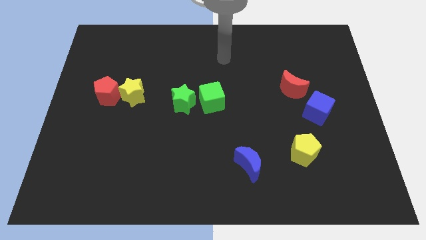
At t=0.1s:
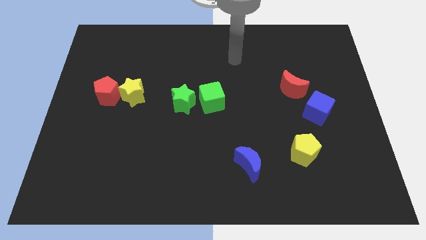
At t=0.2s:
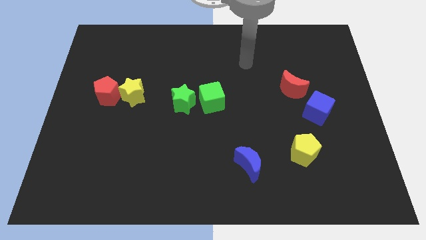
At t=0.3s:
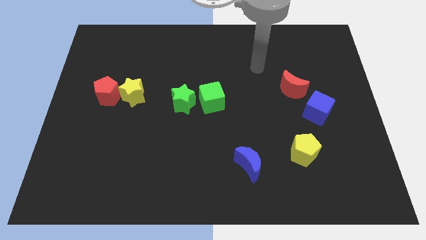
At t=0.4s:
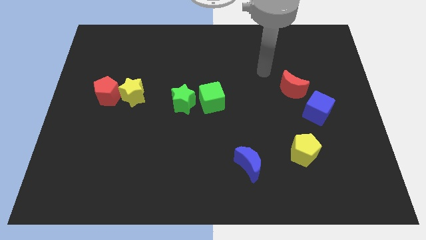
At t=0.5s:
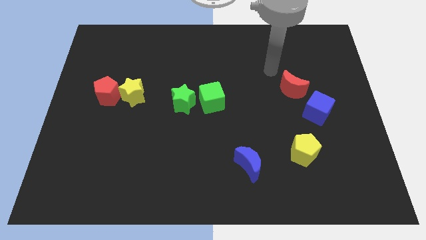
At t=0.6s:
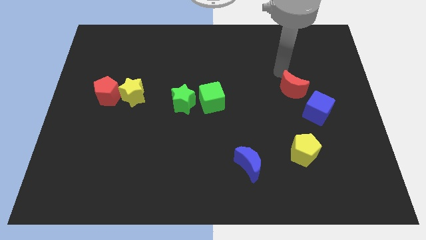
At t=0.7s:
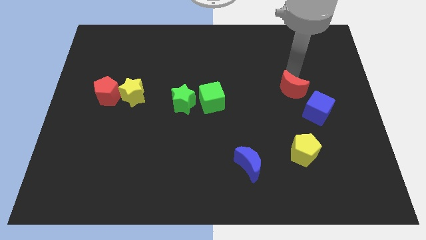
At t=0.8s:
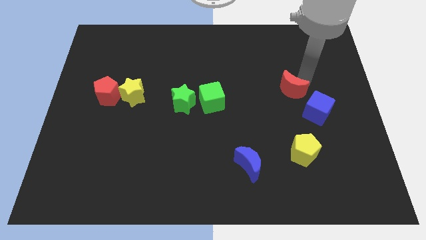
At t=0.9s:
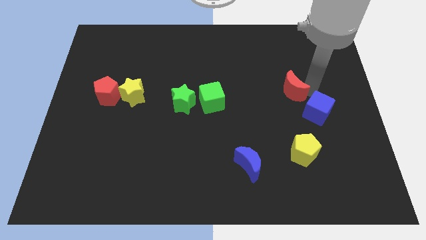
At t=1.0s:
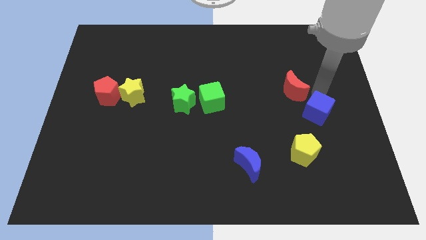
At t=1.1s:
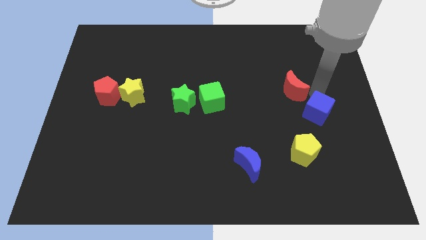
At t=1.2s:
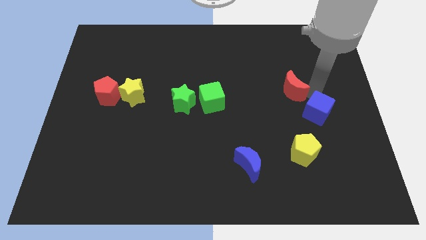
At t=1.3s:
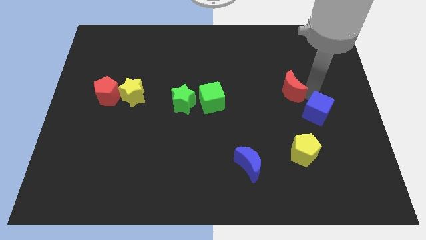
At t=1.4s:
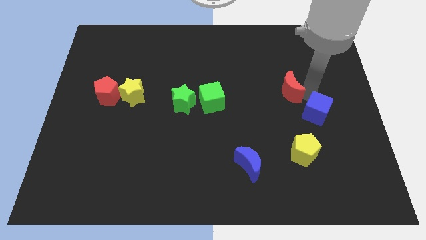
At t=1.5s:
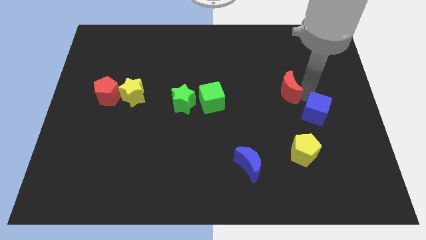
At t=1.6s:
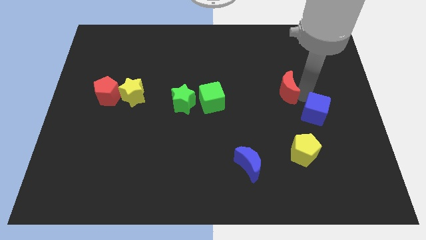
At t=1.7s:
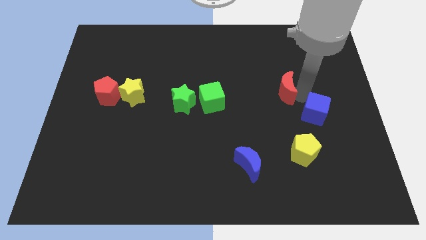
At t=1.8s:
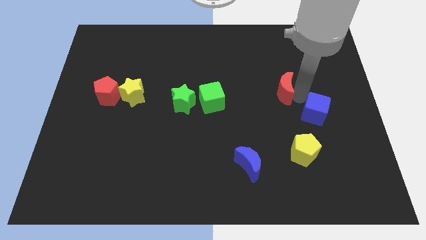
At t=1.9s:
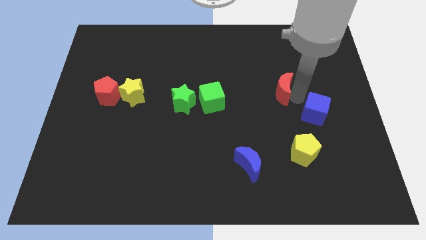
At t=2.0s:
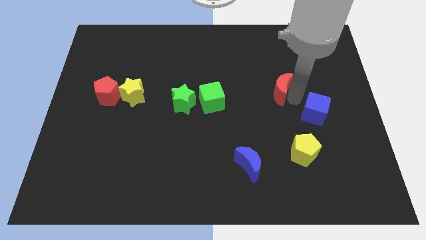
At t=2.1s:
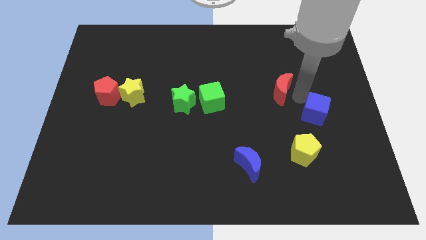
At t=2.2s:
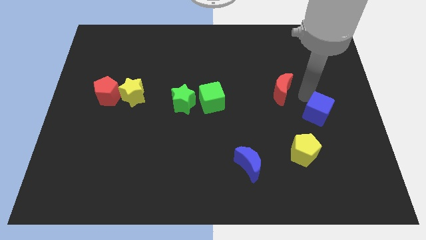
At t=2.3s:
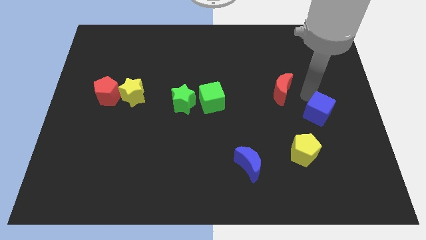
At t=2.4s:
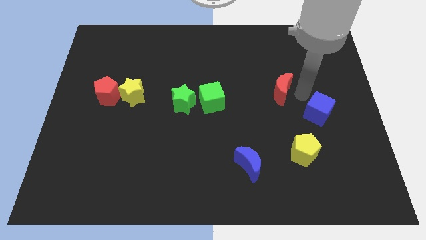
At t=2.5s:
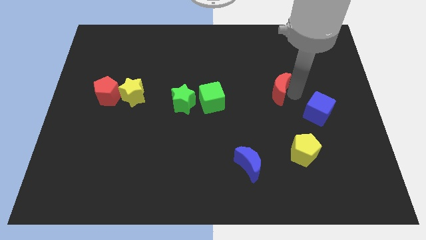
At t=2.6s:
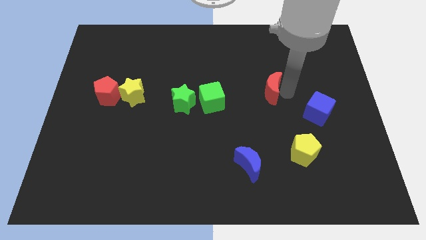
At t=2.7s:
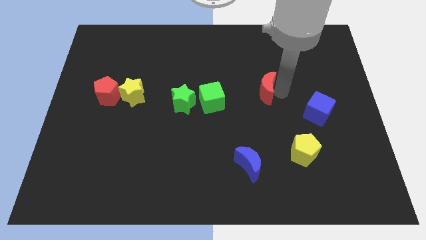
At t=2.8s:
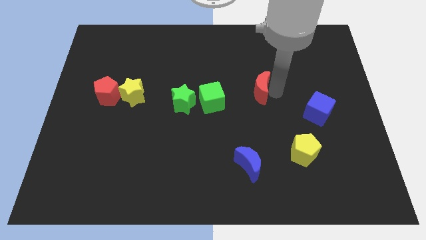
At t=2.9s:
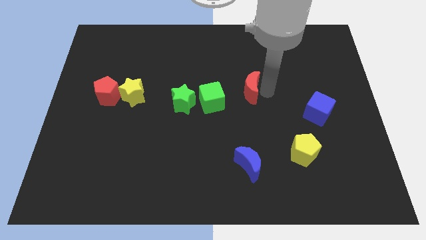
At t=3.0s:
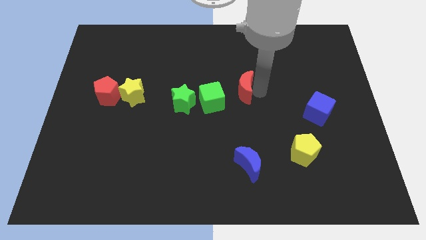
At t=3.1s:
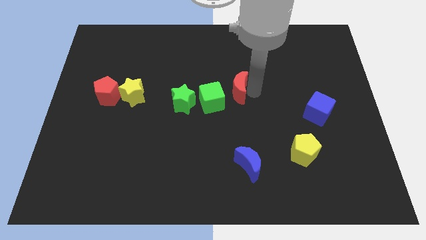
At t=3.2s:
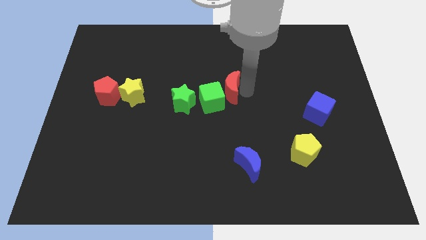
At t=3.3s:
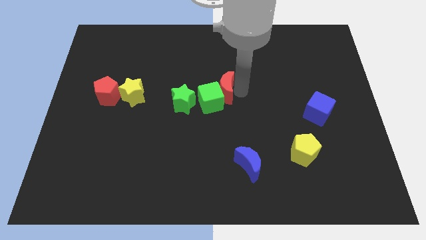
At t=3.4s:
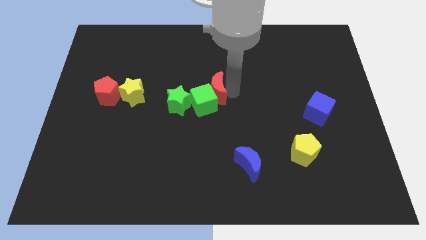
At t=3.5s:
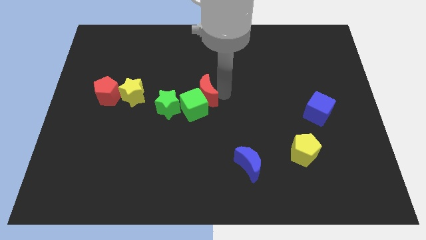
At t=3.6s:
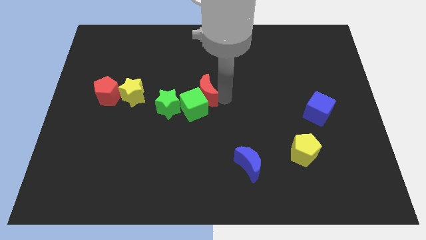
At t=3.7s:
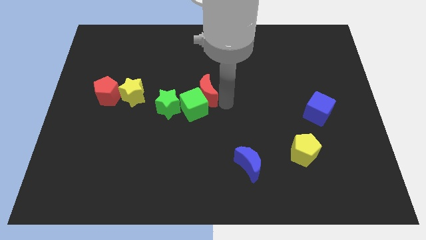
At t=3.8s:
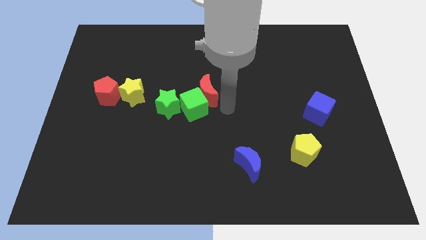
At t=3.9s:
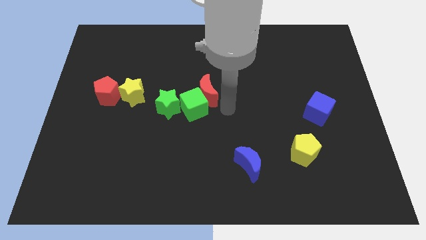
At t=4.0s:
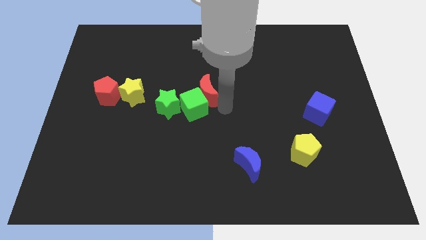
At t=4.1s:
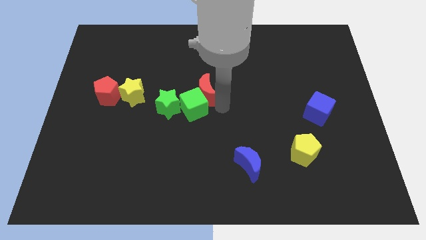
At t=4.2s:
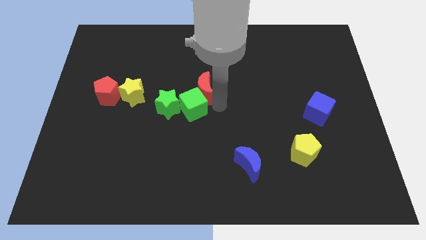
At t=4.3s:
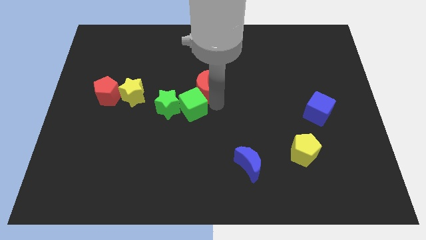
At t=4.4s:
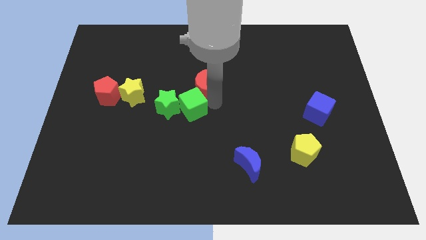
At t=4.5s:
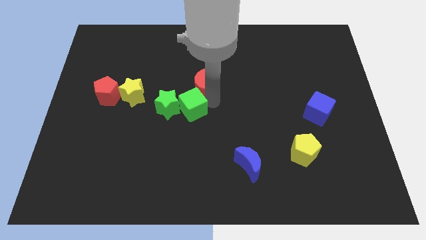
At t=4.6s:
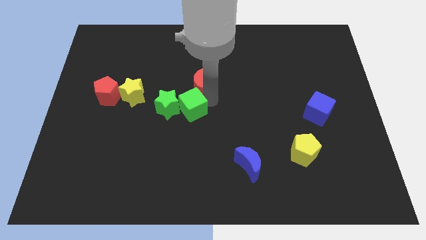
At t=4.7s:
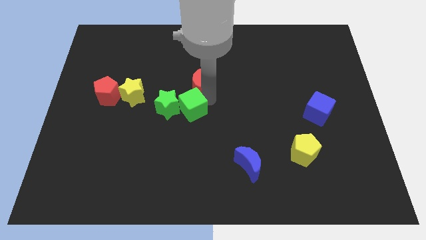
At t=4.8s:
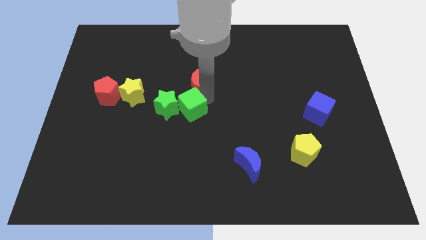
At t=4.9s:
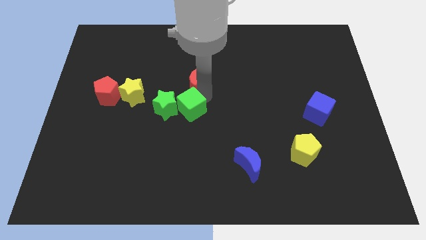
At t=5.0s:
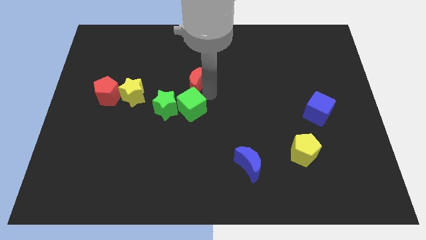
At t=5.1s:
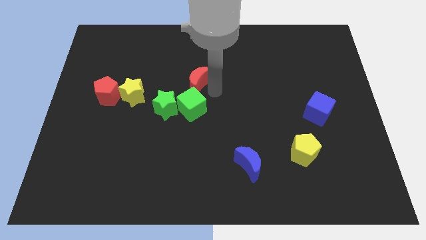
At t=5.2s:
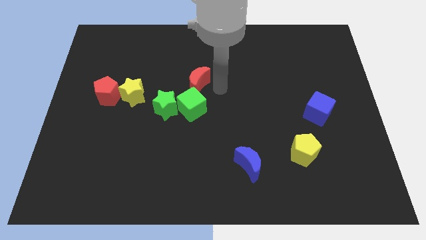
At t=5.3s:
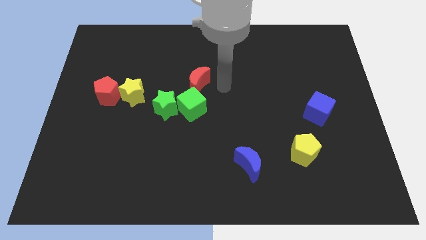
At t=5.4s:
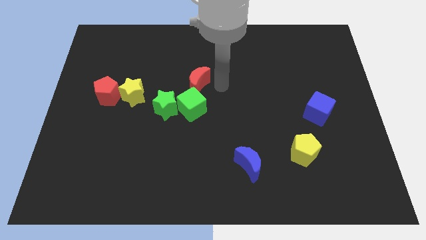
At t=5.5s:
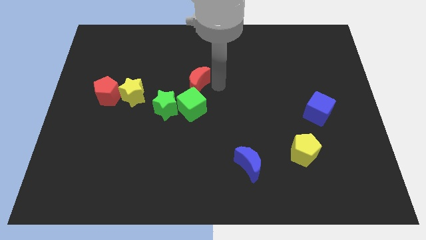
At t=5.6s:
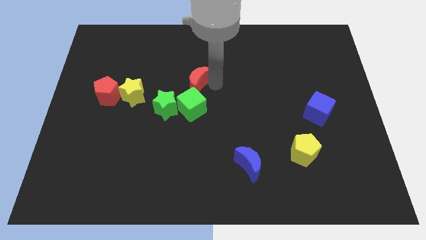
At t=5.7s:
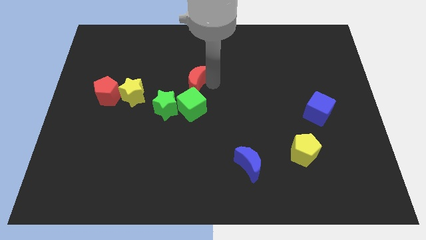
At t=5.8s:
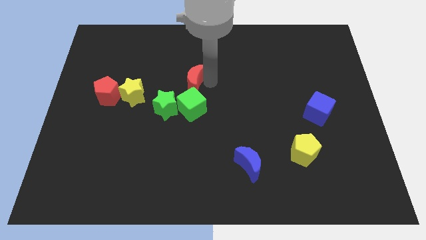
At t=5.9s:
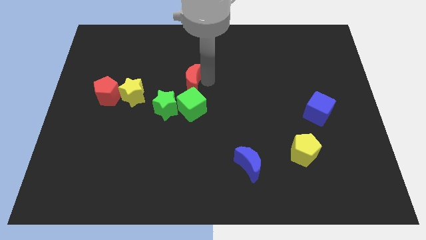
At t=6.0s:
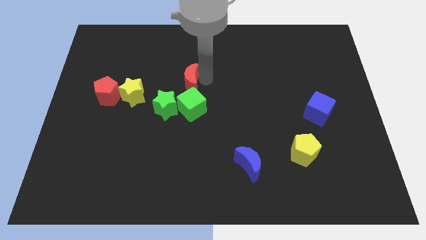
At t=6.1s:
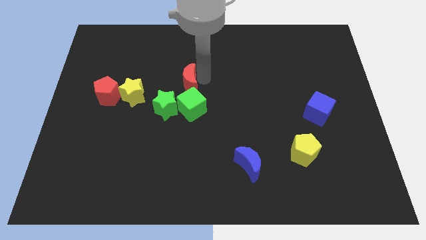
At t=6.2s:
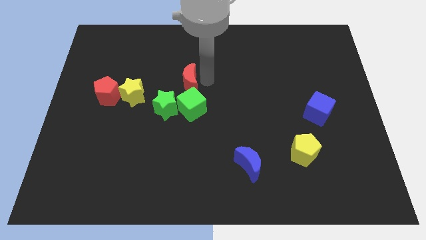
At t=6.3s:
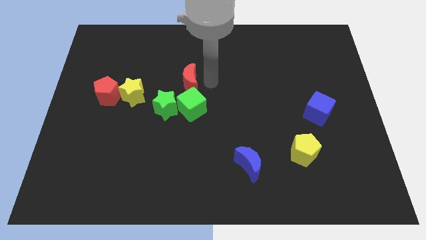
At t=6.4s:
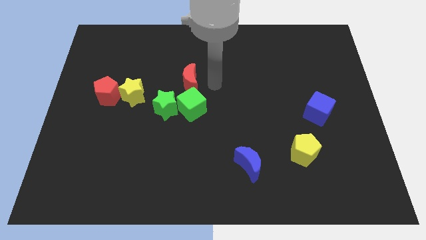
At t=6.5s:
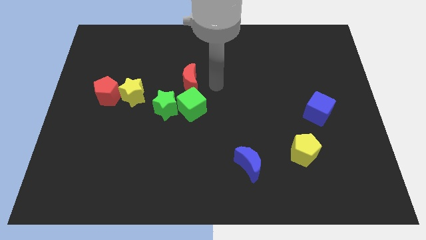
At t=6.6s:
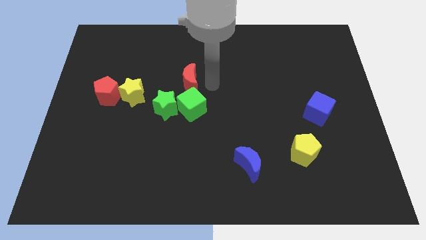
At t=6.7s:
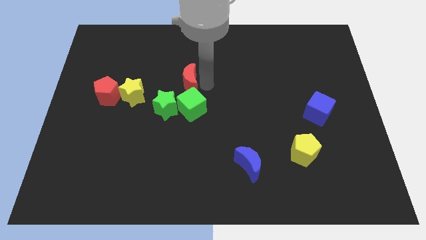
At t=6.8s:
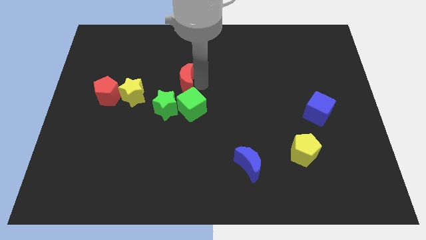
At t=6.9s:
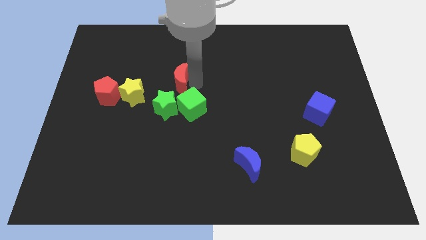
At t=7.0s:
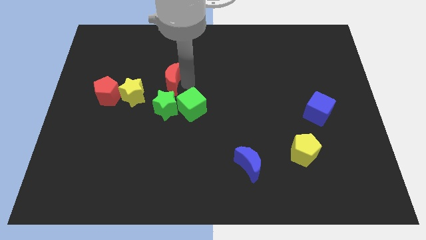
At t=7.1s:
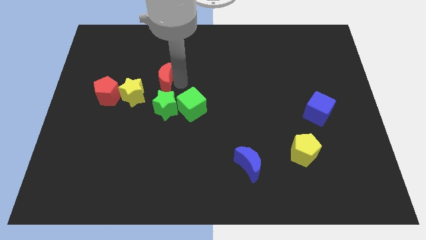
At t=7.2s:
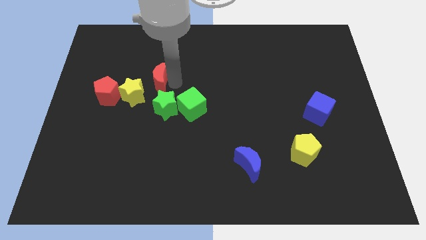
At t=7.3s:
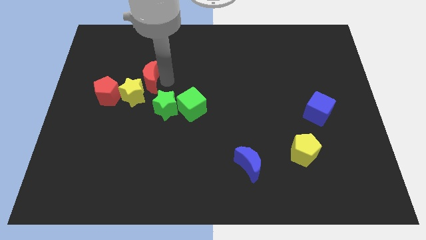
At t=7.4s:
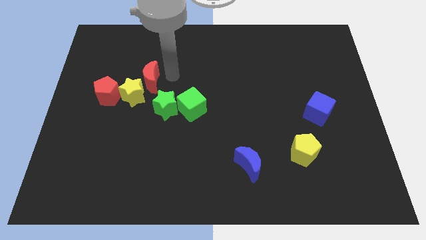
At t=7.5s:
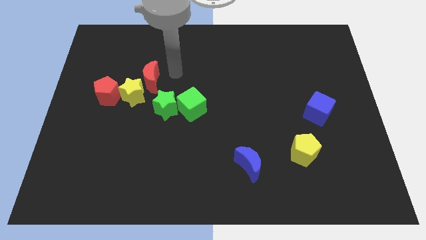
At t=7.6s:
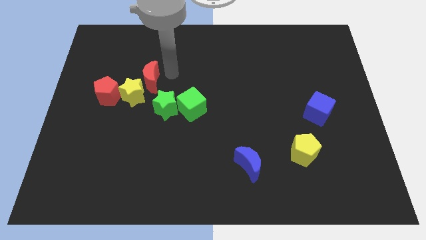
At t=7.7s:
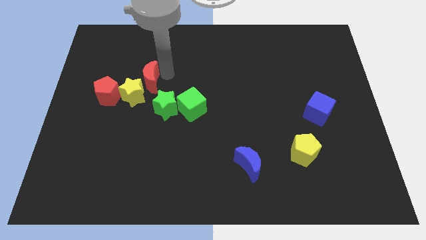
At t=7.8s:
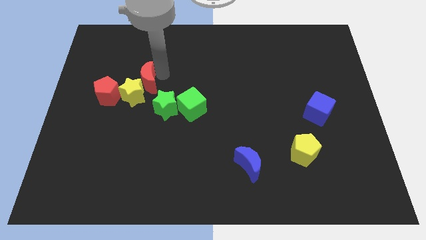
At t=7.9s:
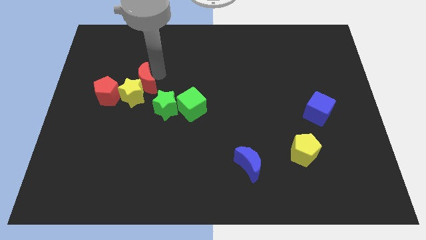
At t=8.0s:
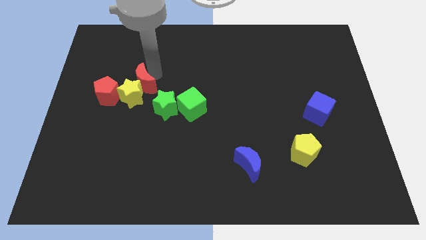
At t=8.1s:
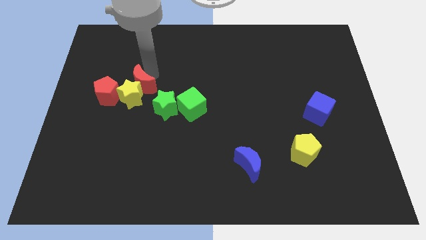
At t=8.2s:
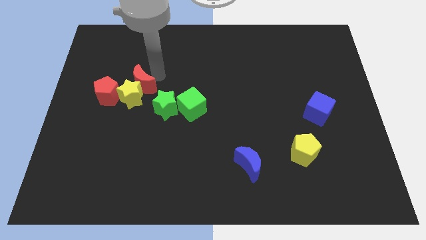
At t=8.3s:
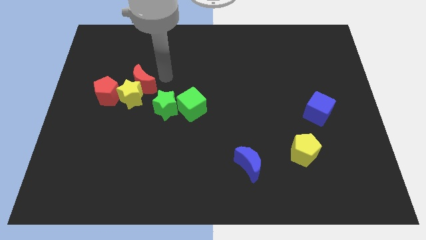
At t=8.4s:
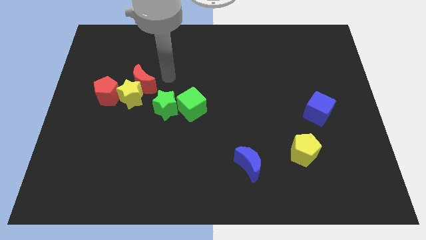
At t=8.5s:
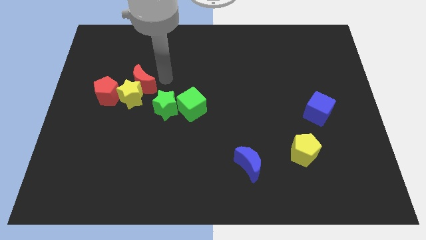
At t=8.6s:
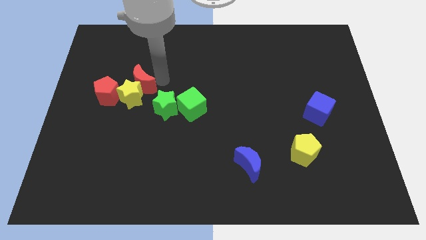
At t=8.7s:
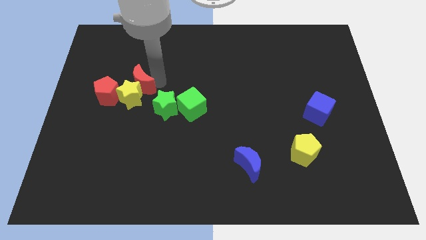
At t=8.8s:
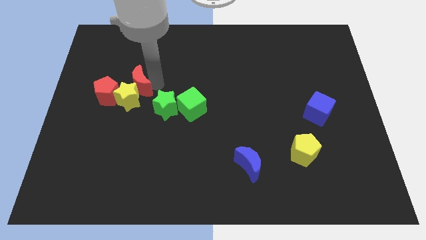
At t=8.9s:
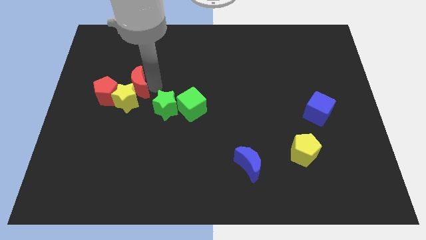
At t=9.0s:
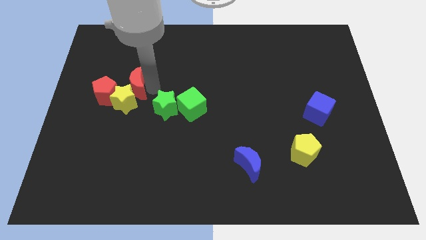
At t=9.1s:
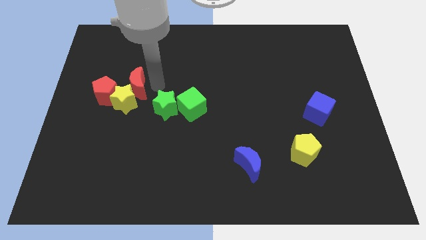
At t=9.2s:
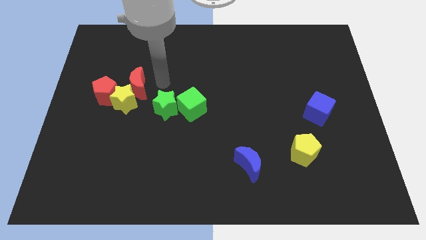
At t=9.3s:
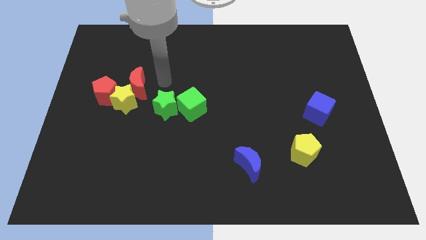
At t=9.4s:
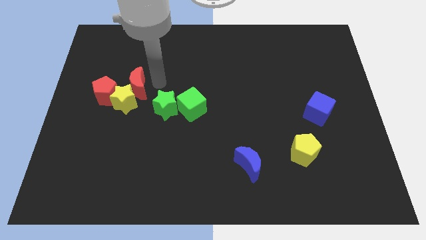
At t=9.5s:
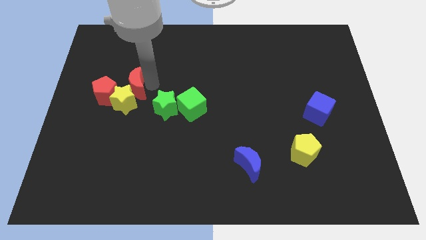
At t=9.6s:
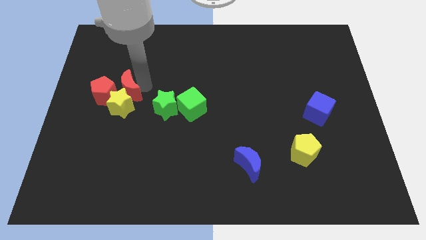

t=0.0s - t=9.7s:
slide the red moon next to the red pentagon
